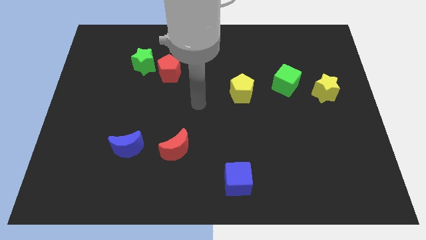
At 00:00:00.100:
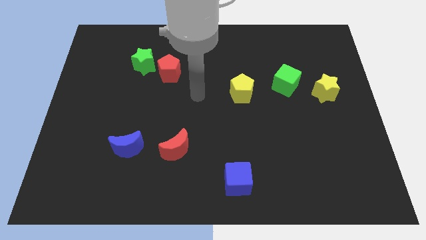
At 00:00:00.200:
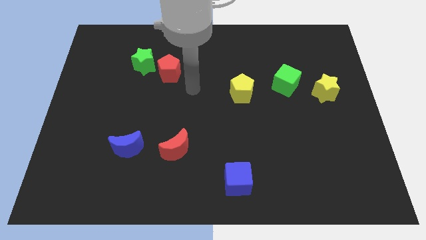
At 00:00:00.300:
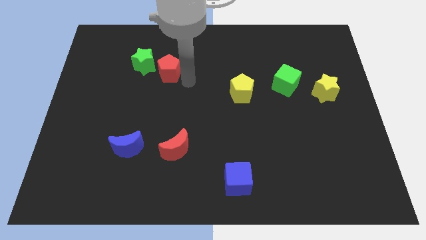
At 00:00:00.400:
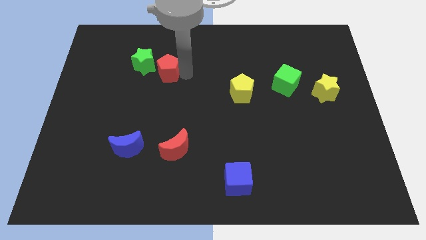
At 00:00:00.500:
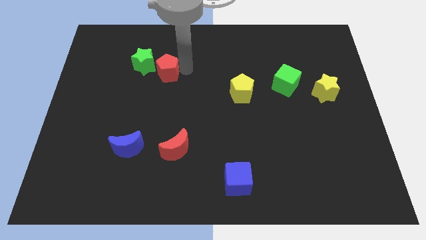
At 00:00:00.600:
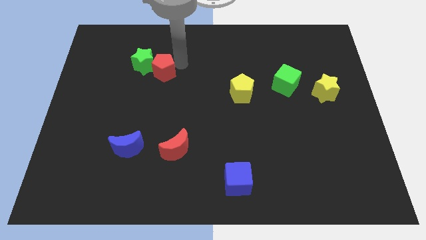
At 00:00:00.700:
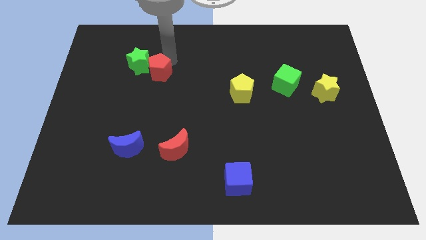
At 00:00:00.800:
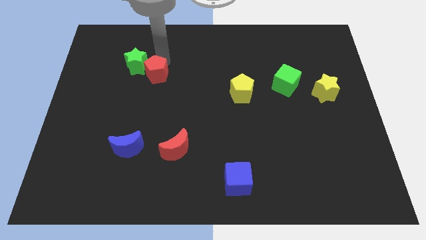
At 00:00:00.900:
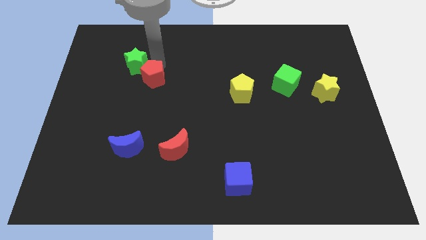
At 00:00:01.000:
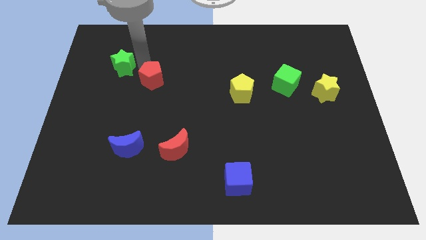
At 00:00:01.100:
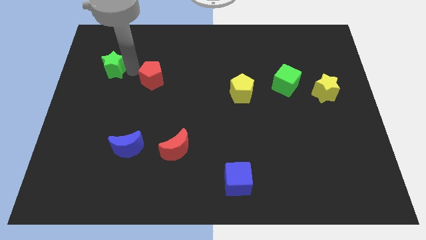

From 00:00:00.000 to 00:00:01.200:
separate the red pentagon from the green star

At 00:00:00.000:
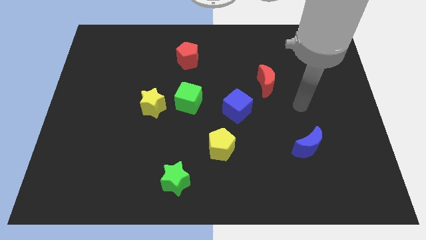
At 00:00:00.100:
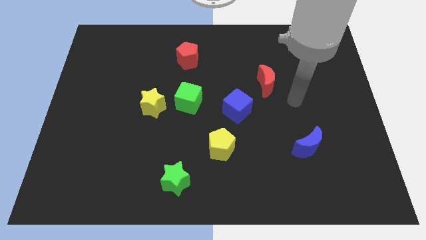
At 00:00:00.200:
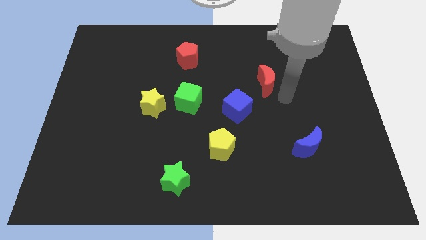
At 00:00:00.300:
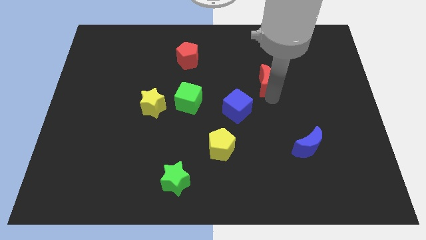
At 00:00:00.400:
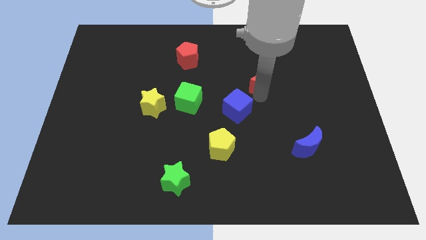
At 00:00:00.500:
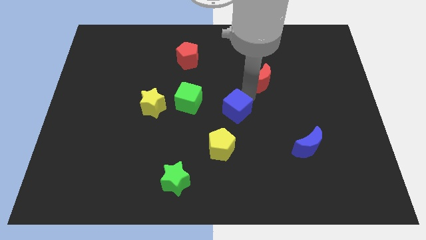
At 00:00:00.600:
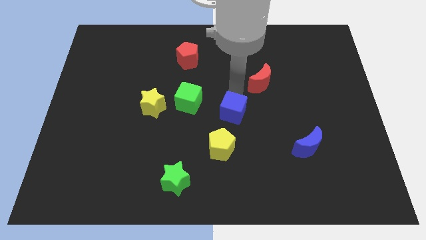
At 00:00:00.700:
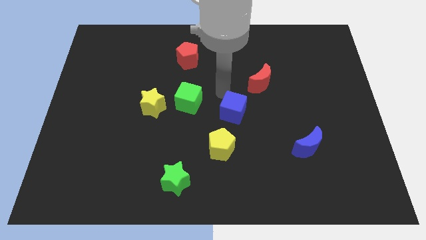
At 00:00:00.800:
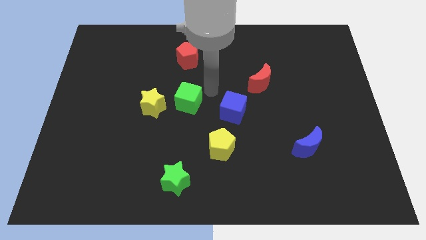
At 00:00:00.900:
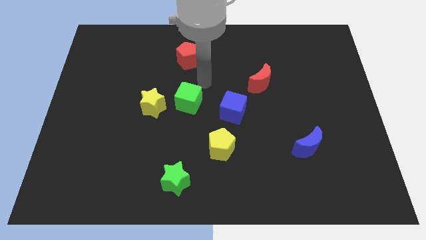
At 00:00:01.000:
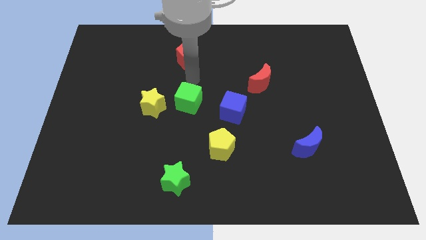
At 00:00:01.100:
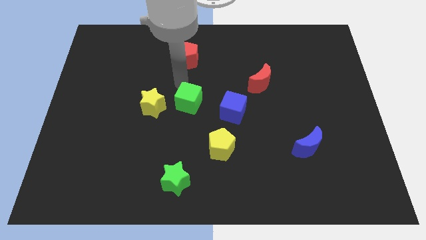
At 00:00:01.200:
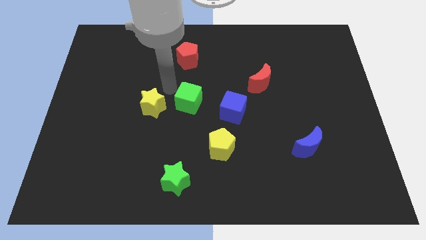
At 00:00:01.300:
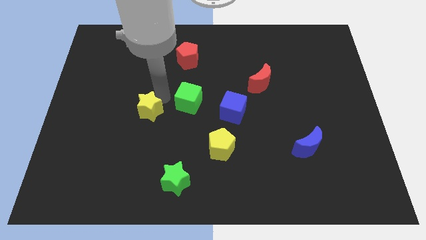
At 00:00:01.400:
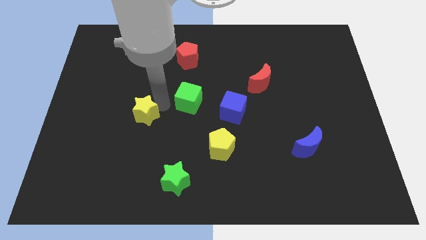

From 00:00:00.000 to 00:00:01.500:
separate the green cube from the yellow star

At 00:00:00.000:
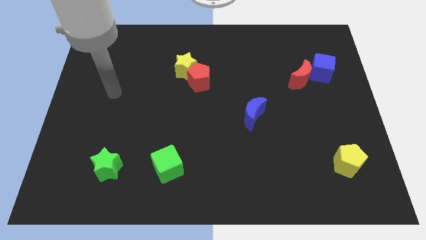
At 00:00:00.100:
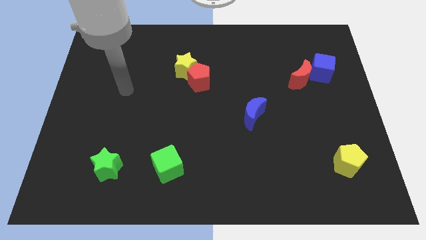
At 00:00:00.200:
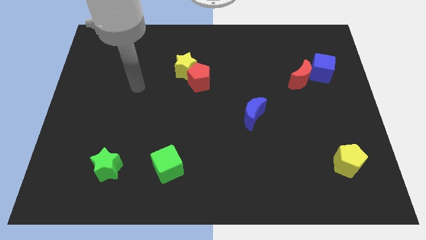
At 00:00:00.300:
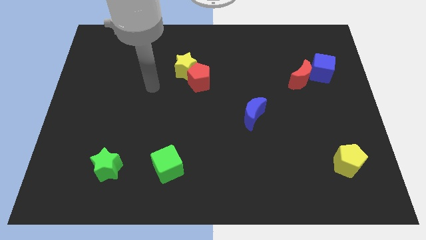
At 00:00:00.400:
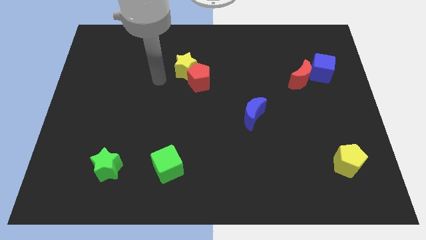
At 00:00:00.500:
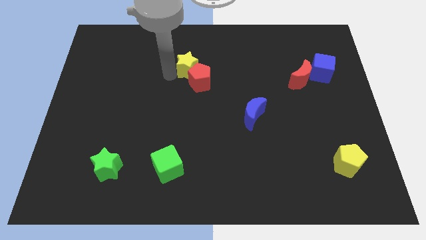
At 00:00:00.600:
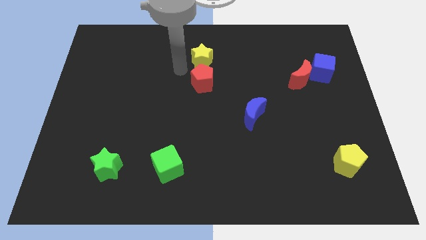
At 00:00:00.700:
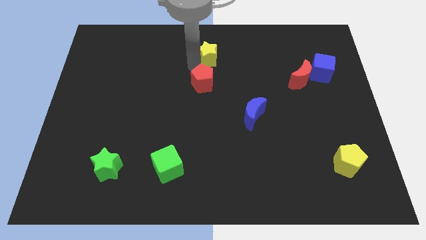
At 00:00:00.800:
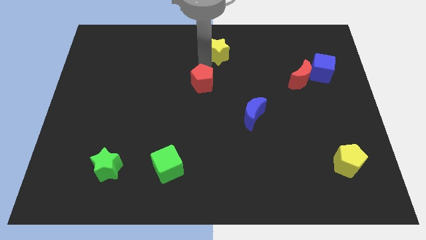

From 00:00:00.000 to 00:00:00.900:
separate the red pentagon from the yellow star

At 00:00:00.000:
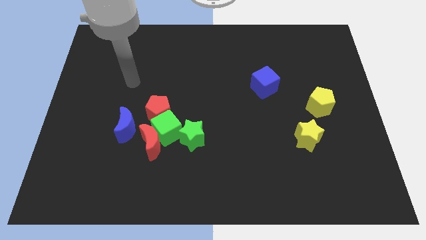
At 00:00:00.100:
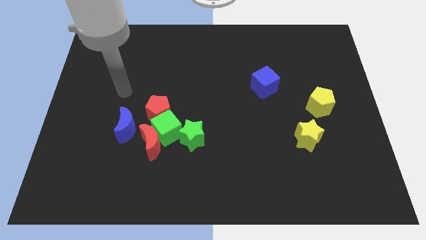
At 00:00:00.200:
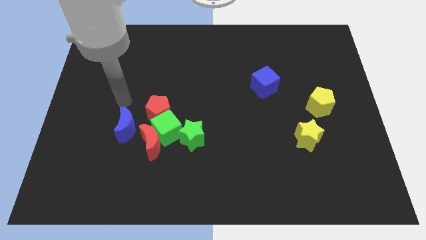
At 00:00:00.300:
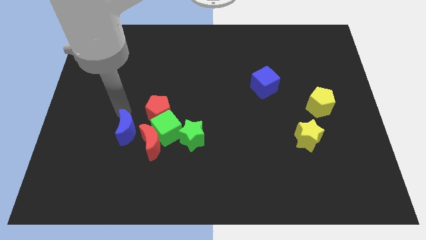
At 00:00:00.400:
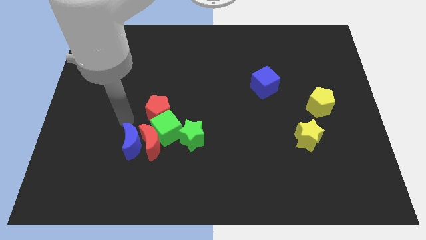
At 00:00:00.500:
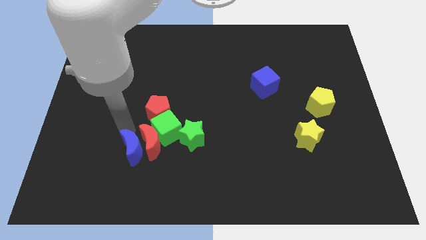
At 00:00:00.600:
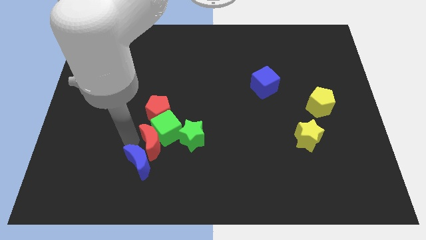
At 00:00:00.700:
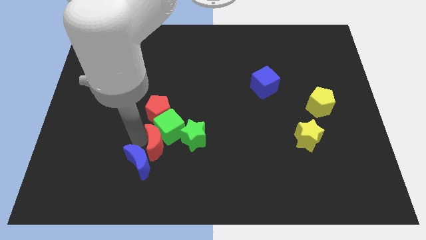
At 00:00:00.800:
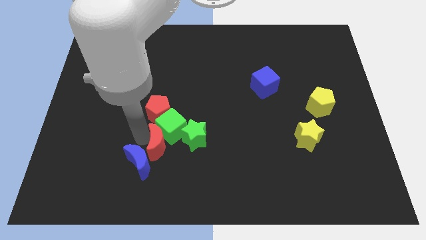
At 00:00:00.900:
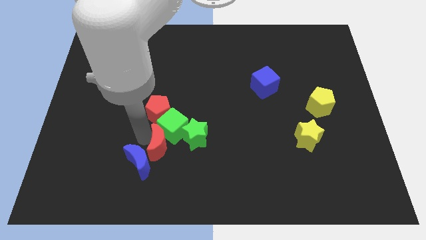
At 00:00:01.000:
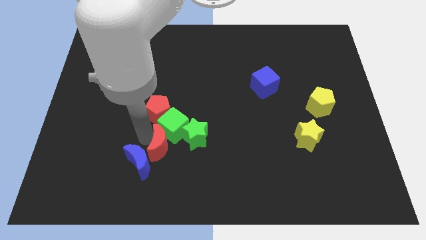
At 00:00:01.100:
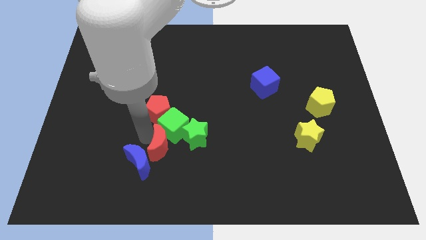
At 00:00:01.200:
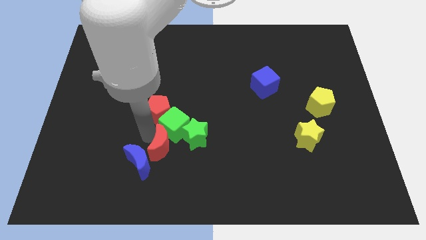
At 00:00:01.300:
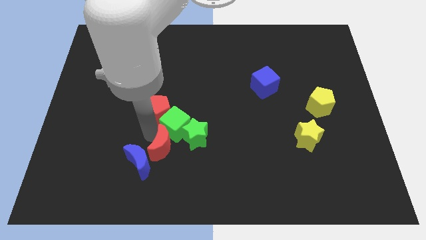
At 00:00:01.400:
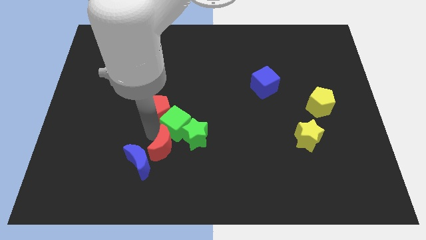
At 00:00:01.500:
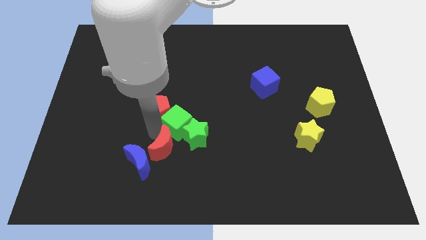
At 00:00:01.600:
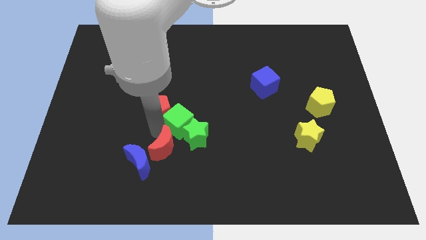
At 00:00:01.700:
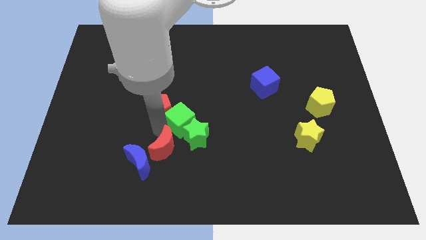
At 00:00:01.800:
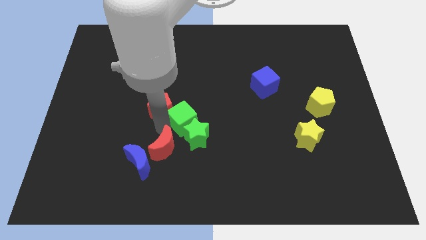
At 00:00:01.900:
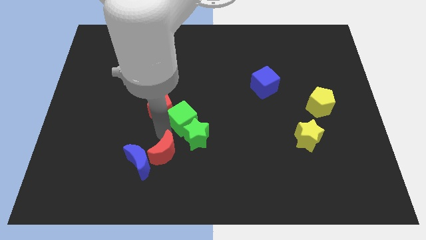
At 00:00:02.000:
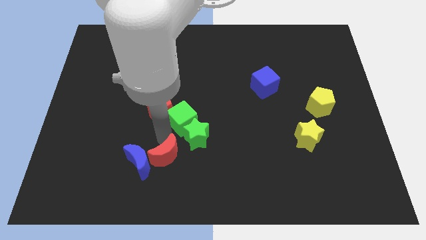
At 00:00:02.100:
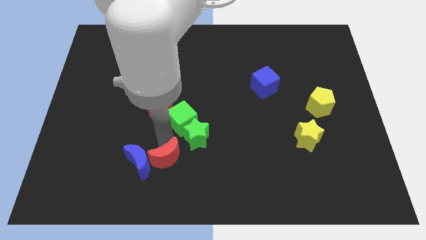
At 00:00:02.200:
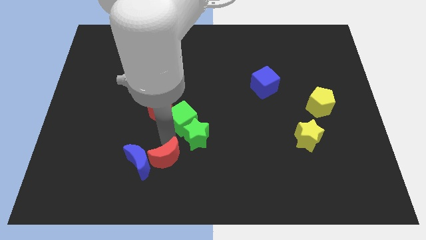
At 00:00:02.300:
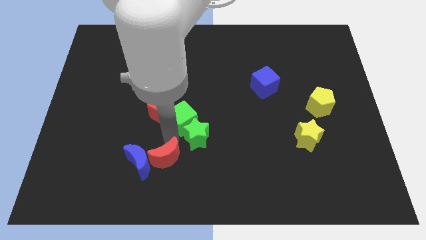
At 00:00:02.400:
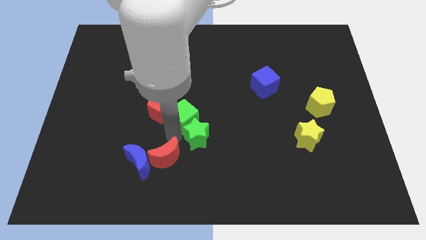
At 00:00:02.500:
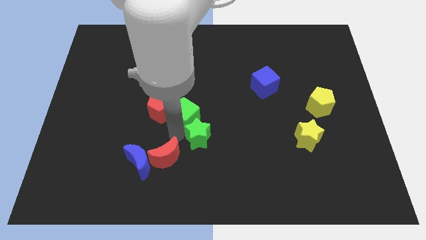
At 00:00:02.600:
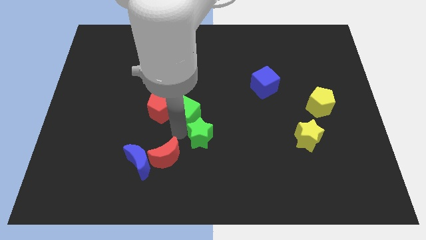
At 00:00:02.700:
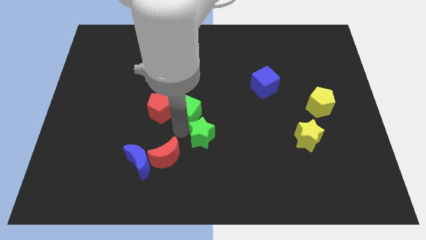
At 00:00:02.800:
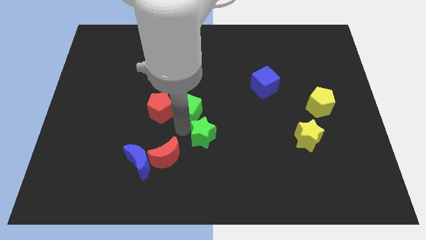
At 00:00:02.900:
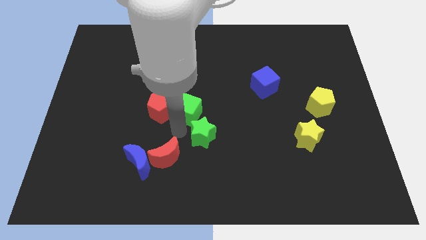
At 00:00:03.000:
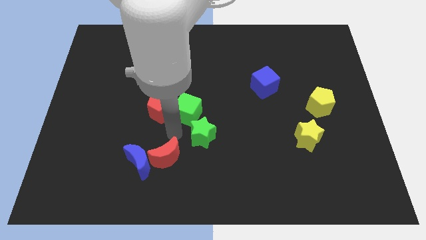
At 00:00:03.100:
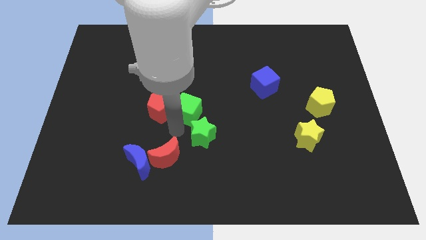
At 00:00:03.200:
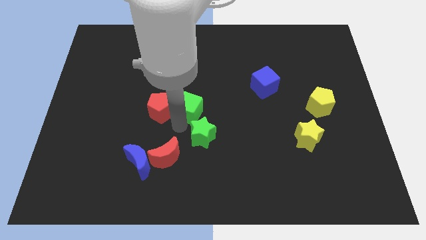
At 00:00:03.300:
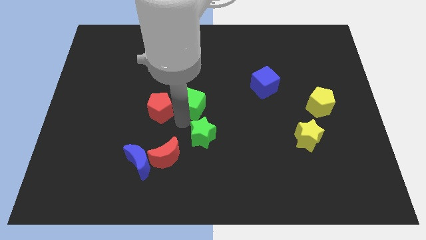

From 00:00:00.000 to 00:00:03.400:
pull the green cube apart from the group

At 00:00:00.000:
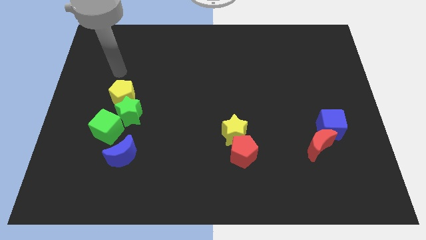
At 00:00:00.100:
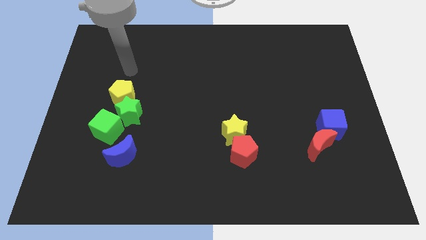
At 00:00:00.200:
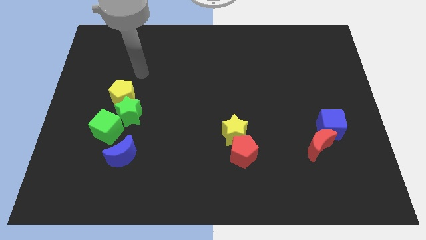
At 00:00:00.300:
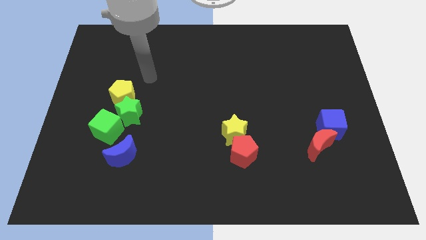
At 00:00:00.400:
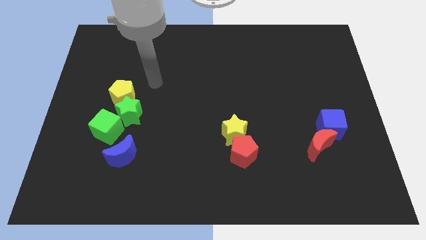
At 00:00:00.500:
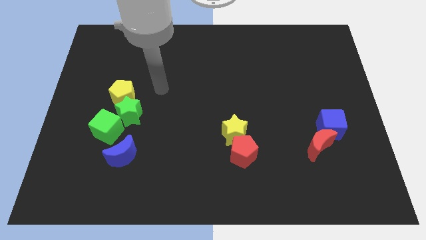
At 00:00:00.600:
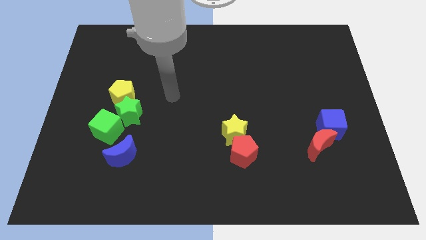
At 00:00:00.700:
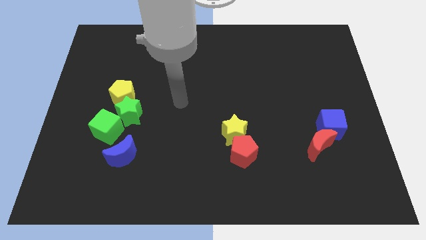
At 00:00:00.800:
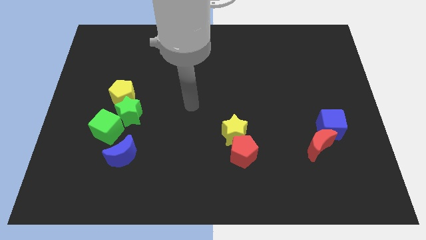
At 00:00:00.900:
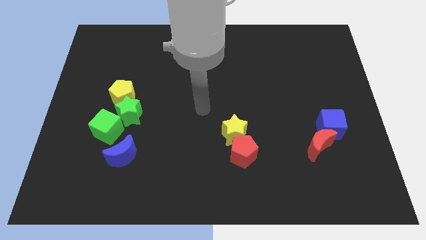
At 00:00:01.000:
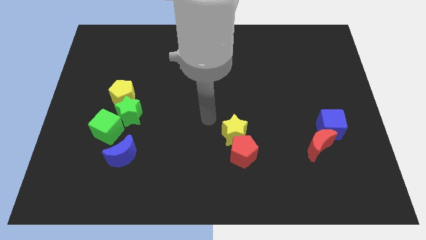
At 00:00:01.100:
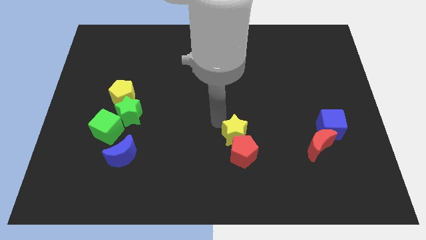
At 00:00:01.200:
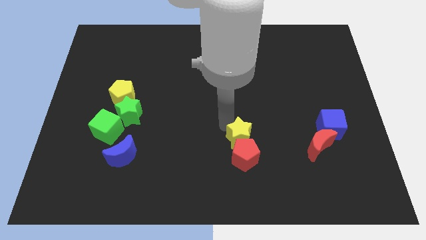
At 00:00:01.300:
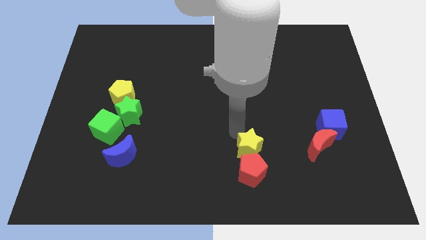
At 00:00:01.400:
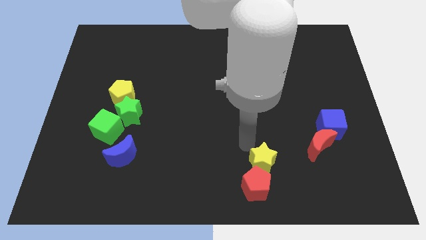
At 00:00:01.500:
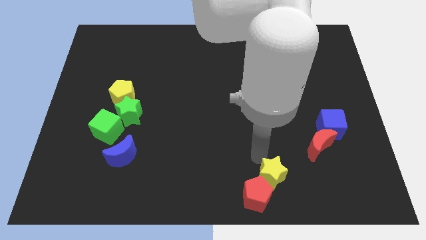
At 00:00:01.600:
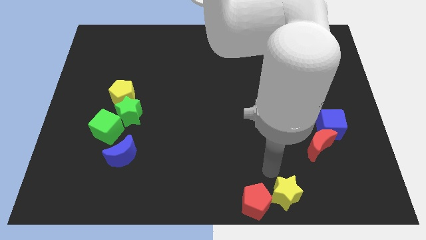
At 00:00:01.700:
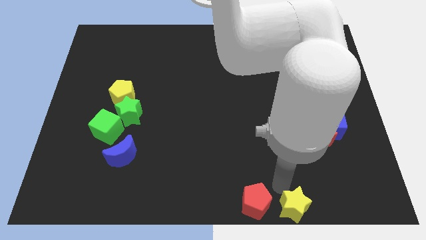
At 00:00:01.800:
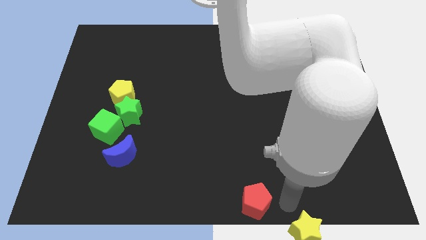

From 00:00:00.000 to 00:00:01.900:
move the red pentagon away from the yellow star

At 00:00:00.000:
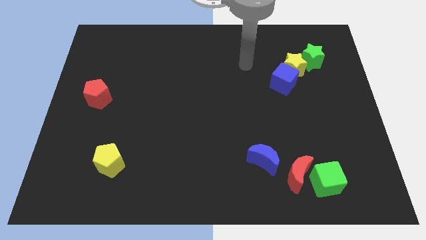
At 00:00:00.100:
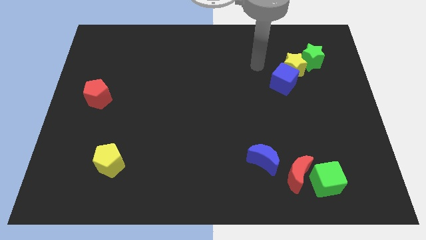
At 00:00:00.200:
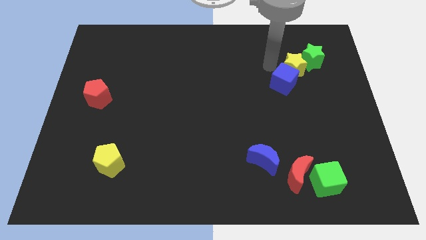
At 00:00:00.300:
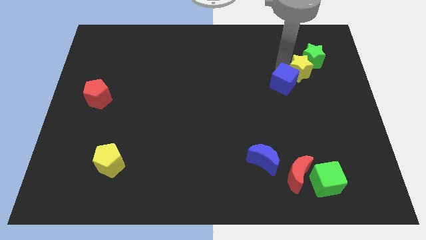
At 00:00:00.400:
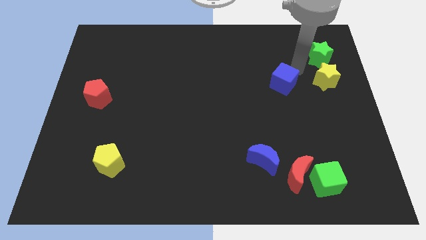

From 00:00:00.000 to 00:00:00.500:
pull the blue cube apart from the yellow star
